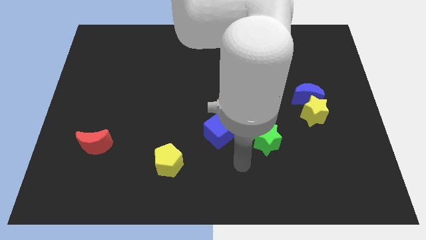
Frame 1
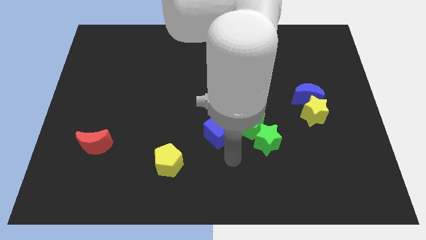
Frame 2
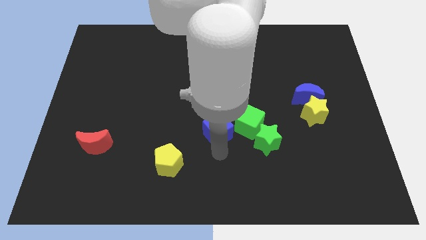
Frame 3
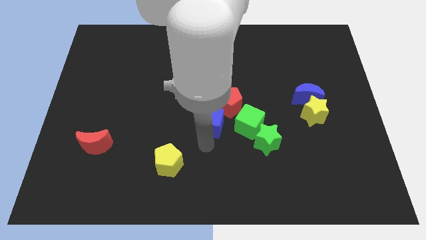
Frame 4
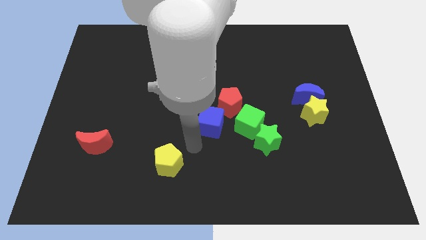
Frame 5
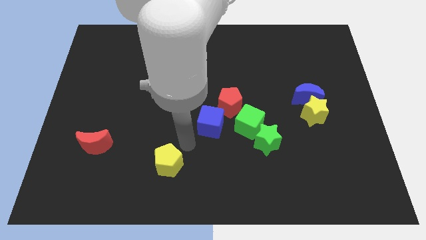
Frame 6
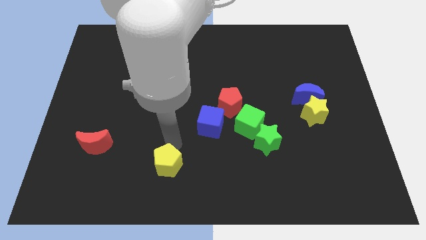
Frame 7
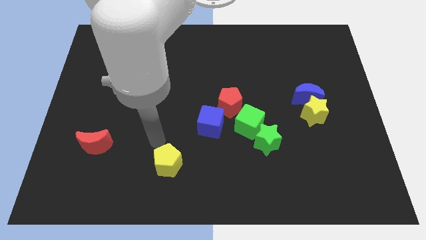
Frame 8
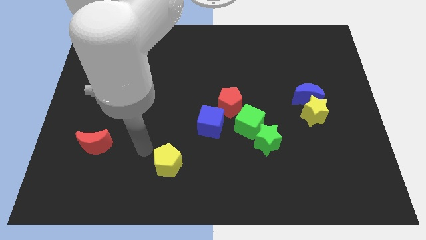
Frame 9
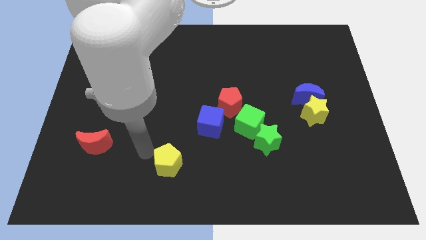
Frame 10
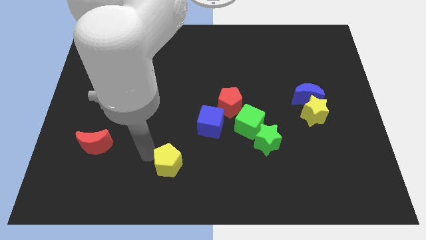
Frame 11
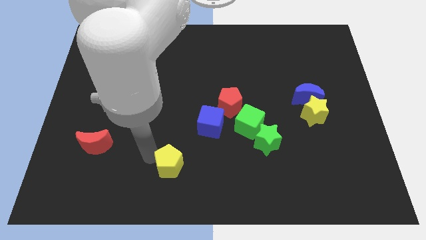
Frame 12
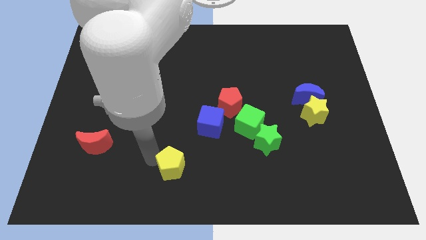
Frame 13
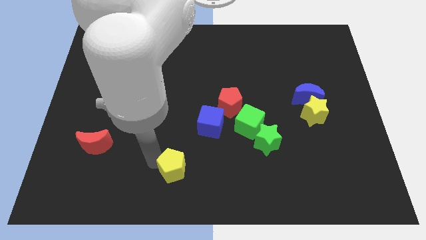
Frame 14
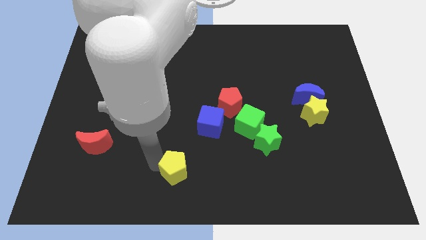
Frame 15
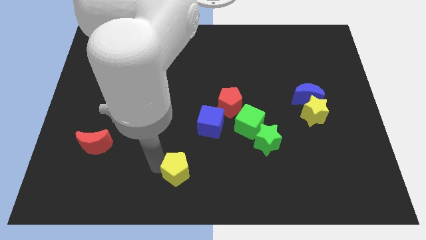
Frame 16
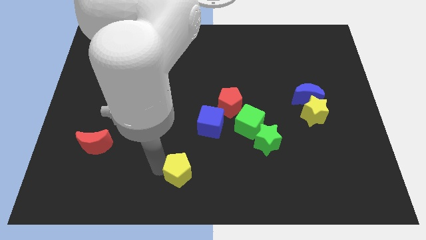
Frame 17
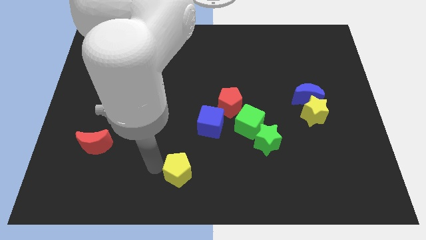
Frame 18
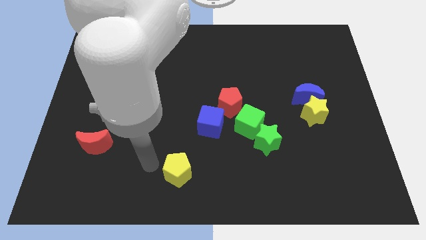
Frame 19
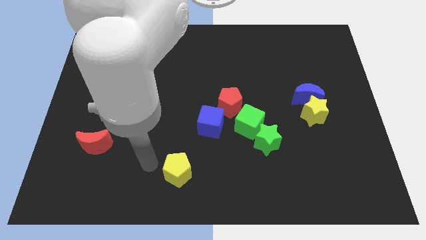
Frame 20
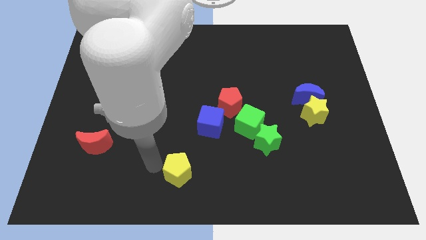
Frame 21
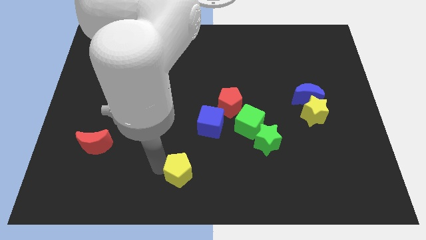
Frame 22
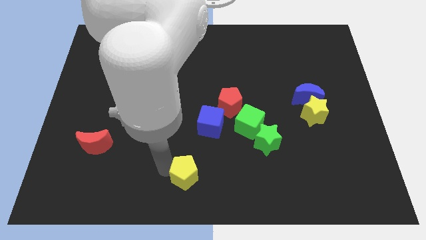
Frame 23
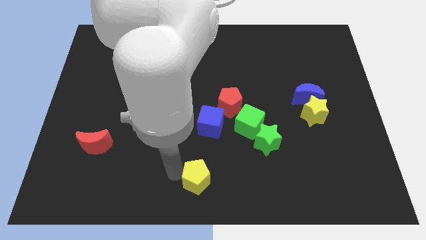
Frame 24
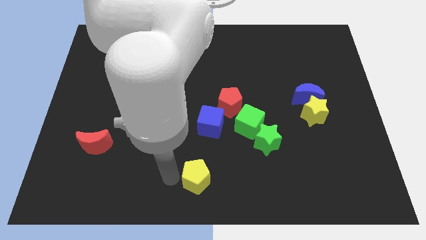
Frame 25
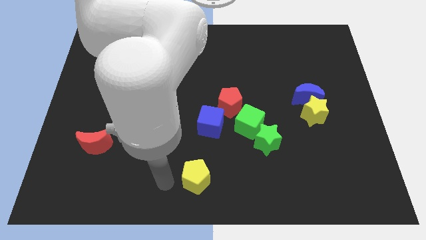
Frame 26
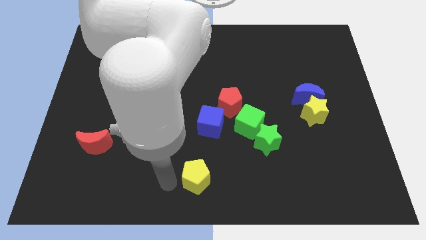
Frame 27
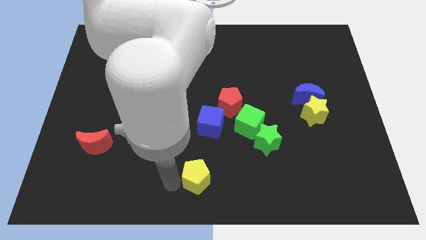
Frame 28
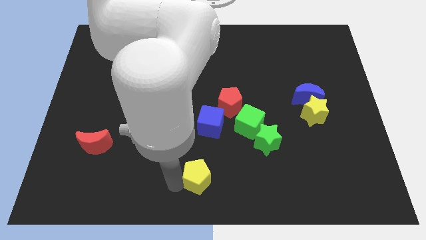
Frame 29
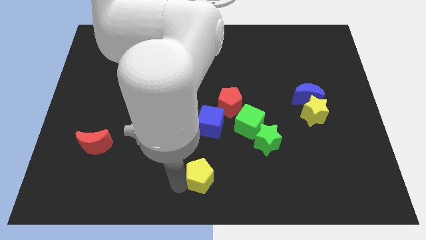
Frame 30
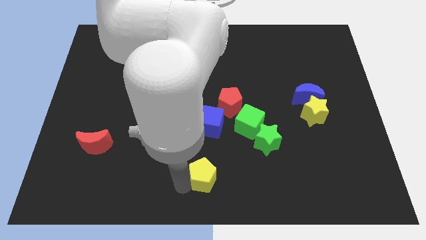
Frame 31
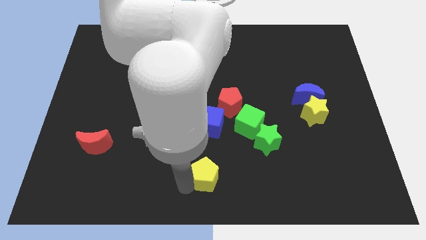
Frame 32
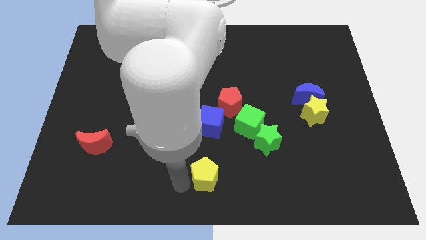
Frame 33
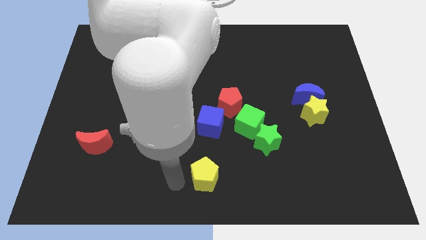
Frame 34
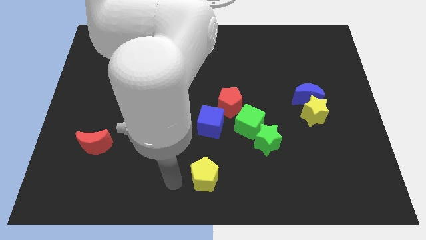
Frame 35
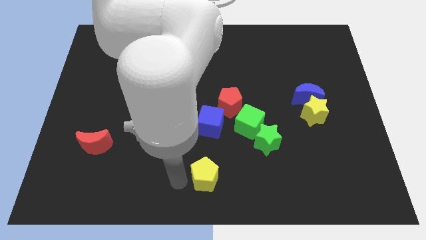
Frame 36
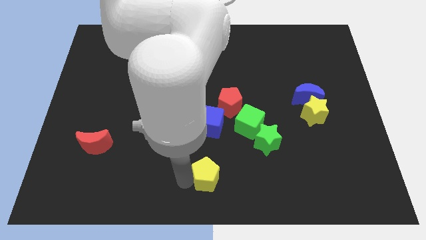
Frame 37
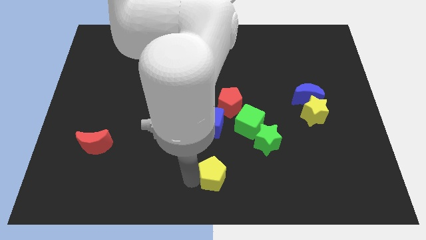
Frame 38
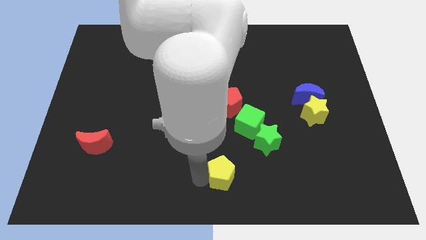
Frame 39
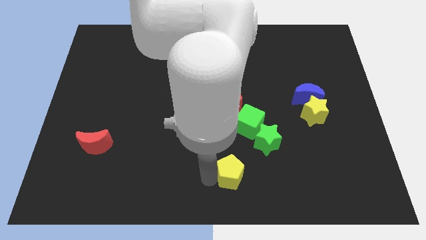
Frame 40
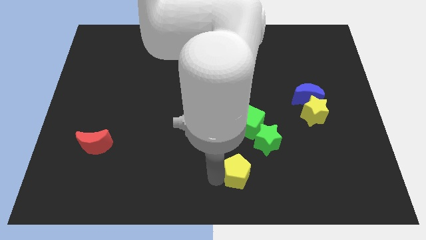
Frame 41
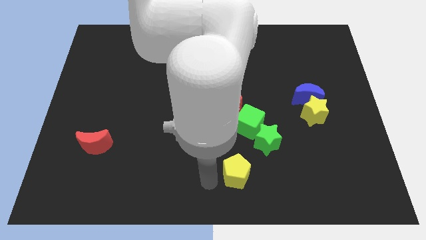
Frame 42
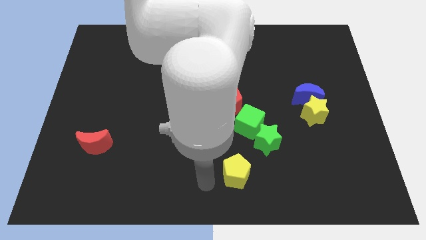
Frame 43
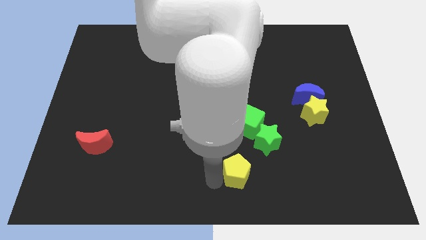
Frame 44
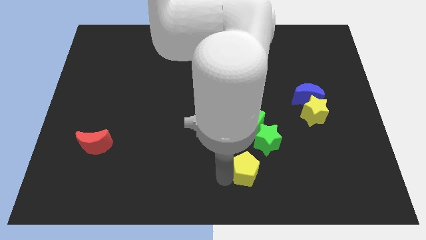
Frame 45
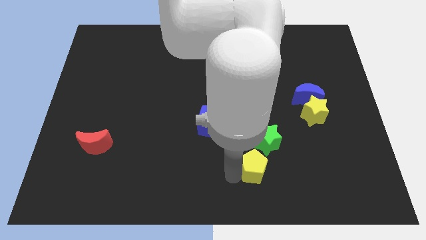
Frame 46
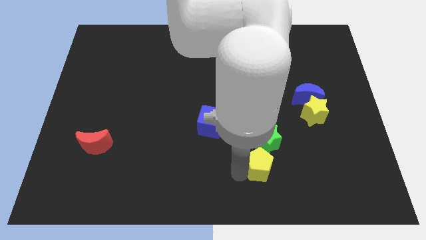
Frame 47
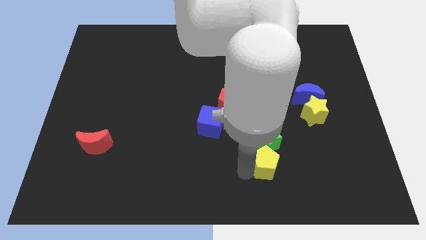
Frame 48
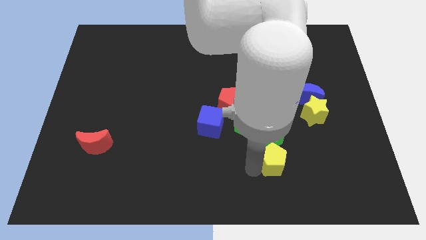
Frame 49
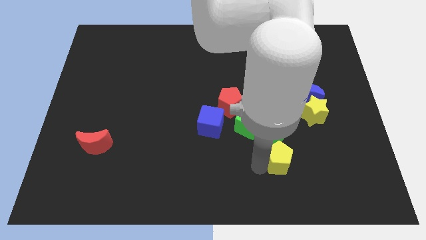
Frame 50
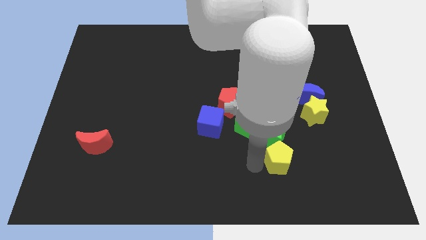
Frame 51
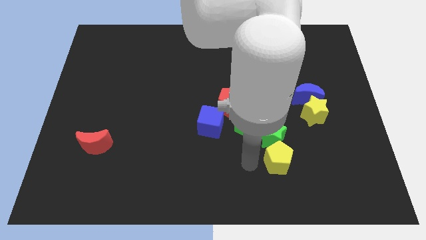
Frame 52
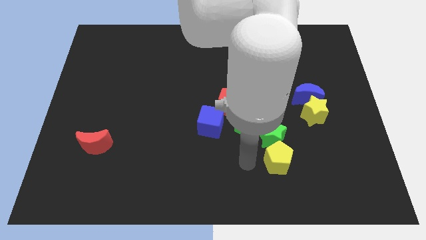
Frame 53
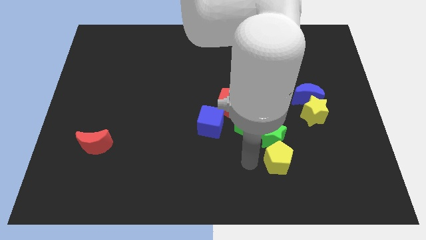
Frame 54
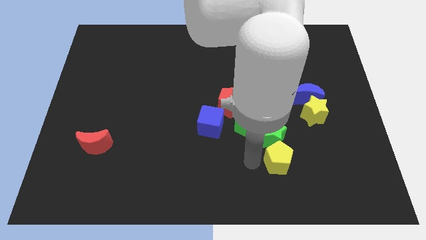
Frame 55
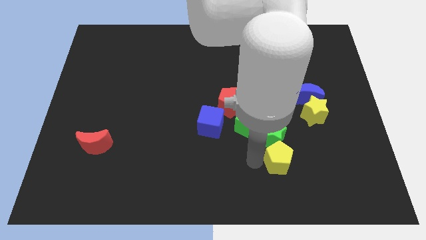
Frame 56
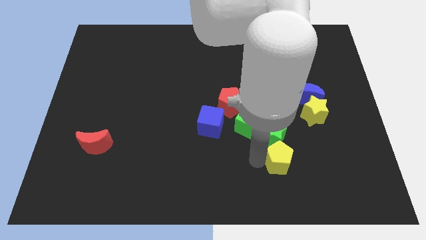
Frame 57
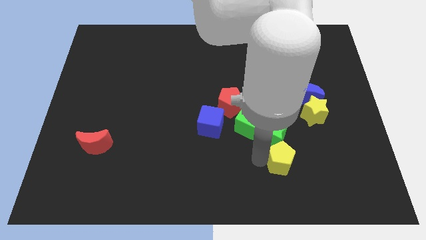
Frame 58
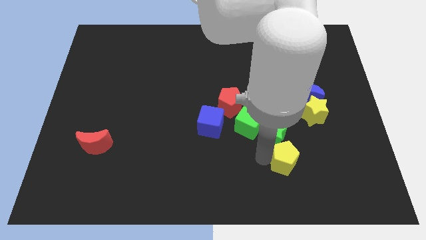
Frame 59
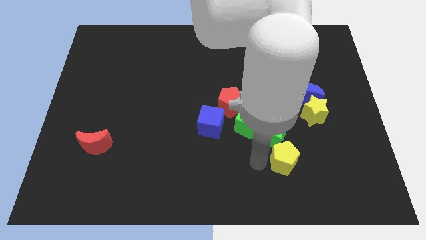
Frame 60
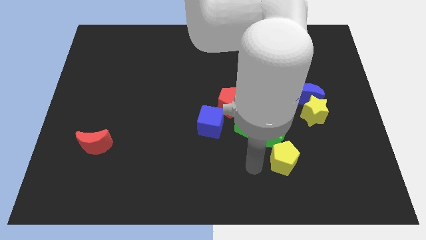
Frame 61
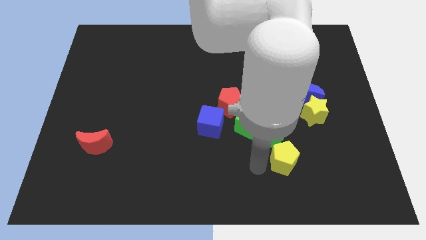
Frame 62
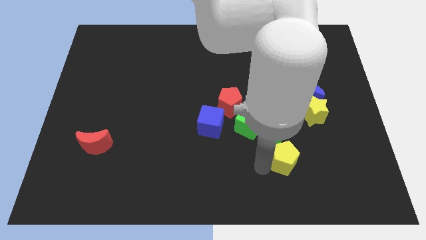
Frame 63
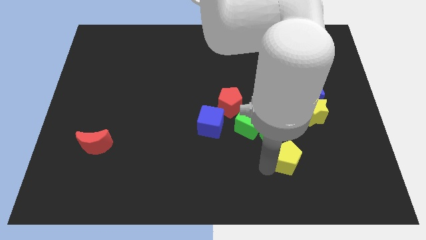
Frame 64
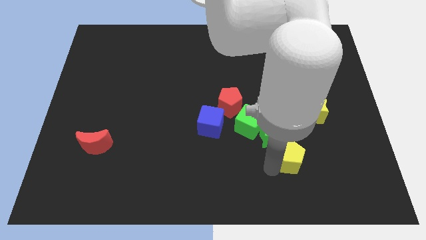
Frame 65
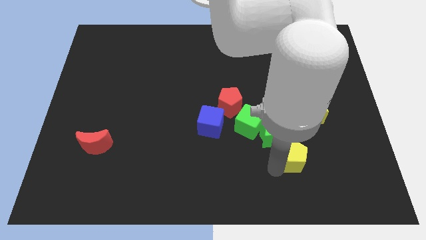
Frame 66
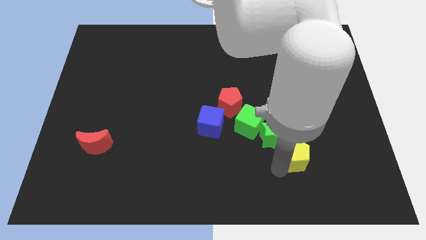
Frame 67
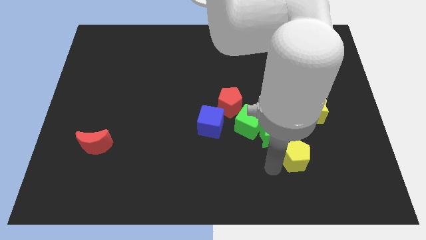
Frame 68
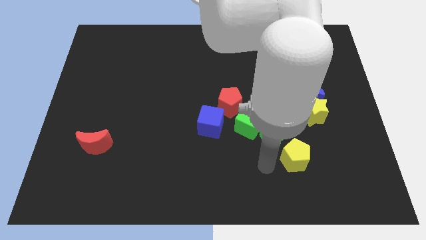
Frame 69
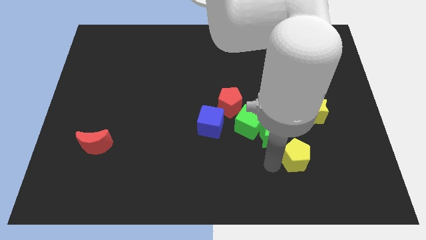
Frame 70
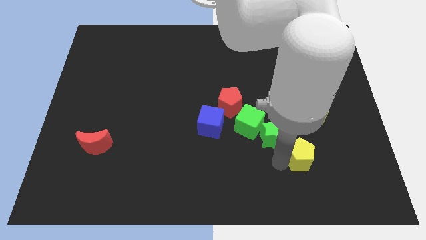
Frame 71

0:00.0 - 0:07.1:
move the yellow pentagon below the yellow star
